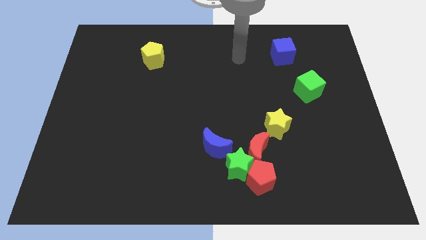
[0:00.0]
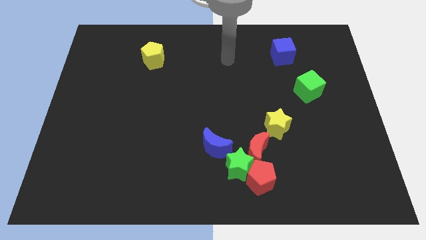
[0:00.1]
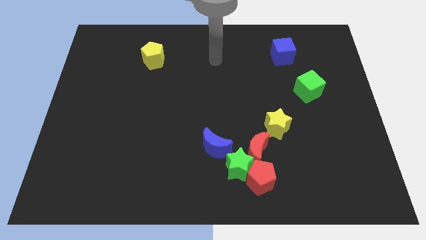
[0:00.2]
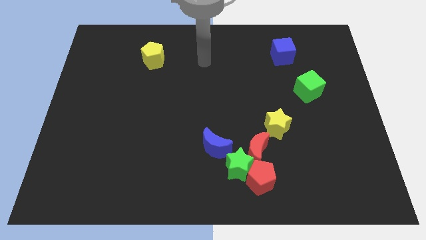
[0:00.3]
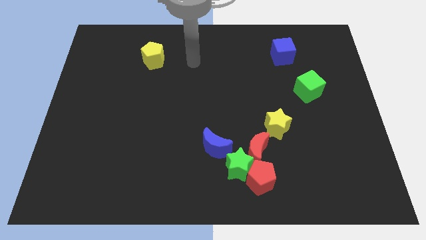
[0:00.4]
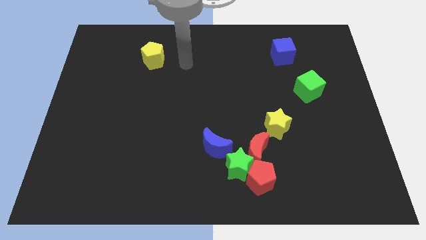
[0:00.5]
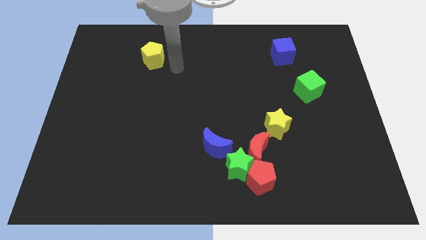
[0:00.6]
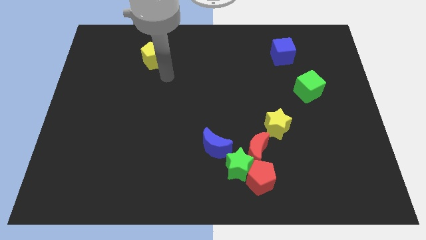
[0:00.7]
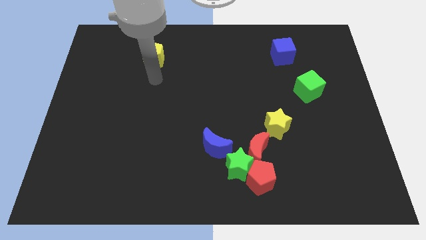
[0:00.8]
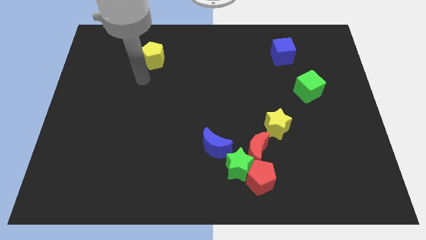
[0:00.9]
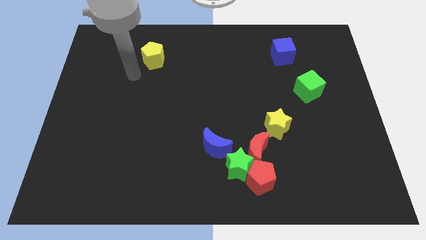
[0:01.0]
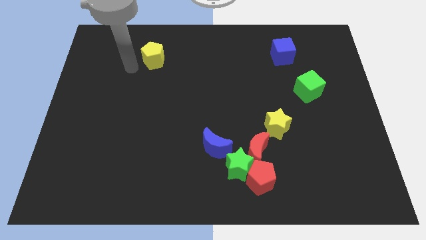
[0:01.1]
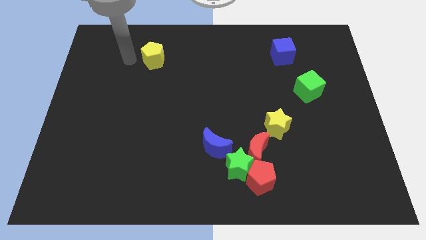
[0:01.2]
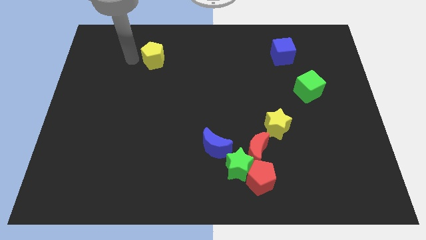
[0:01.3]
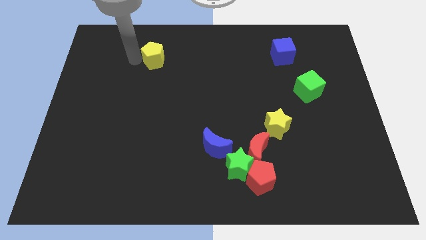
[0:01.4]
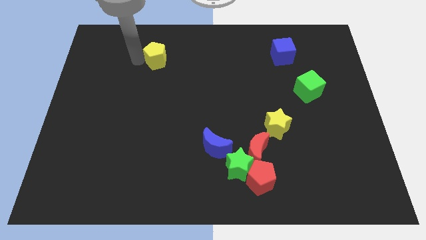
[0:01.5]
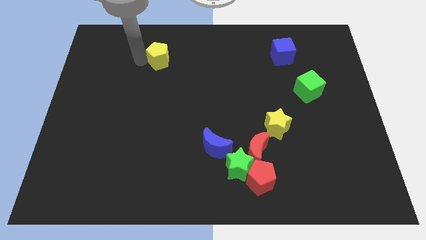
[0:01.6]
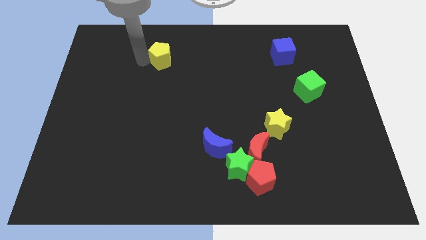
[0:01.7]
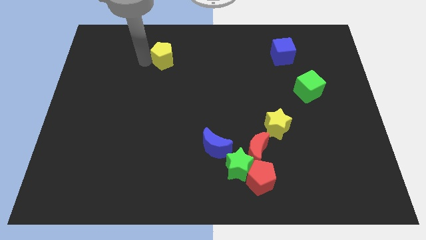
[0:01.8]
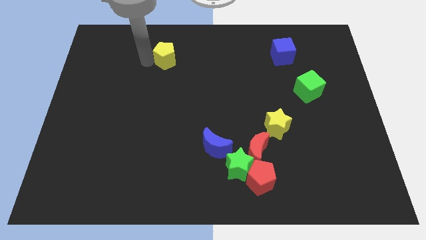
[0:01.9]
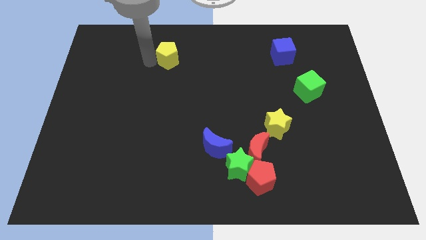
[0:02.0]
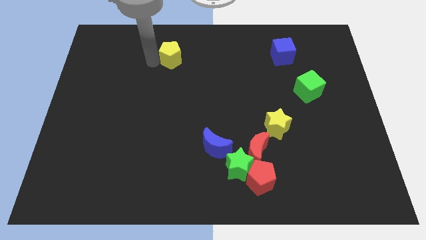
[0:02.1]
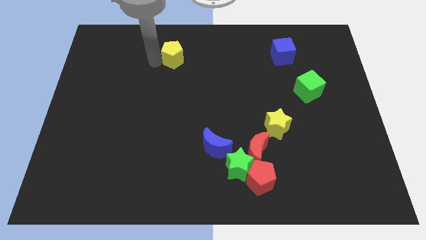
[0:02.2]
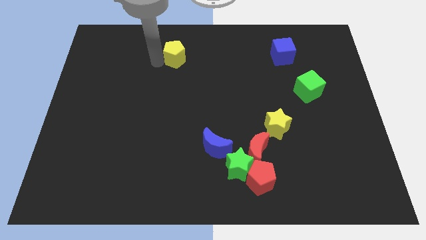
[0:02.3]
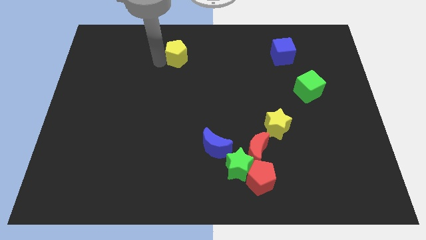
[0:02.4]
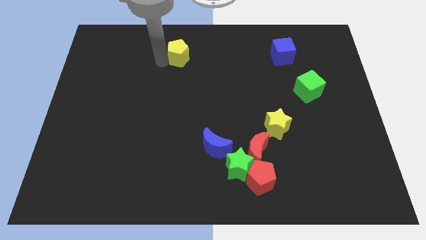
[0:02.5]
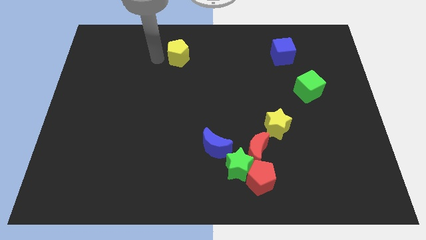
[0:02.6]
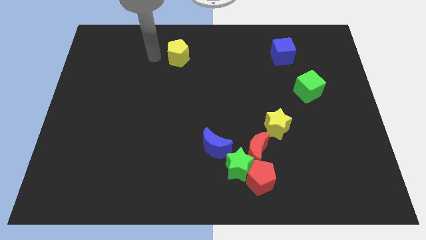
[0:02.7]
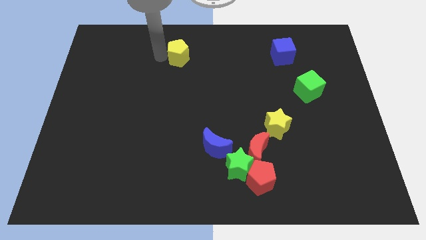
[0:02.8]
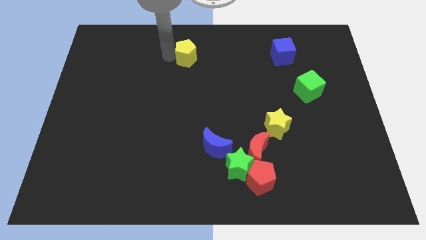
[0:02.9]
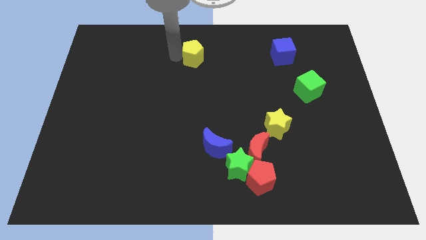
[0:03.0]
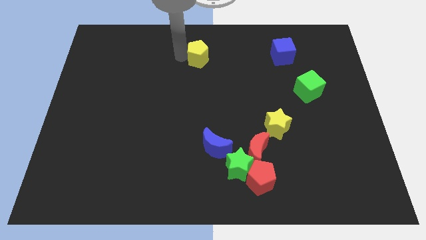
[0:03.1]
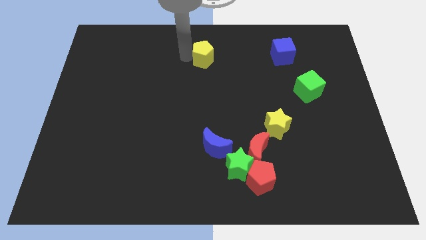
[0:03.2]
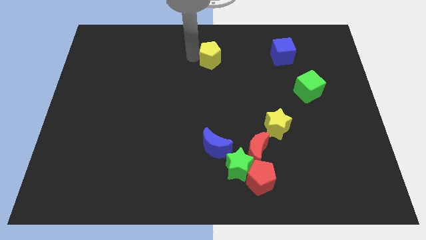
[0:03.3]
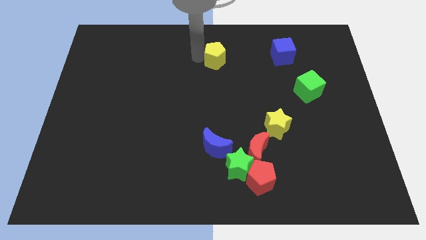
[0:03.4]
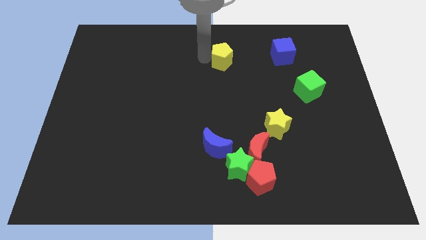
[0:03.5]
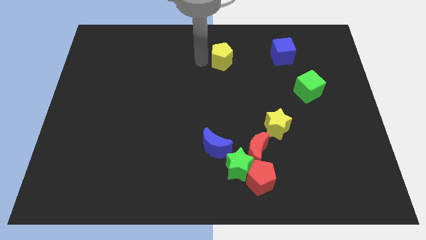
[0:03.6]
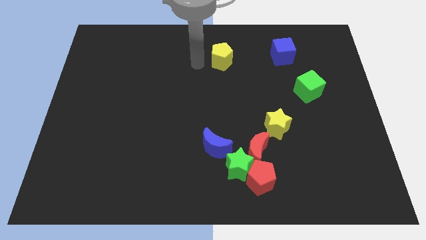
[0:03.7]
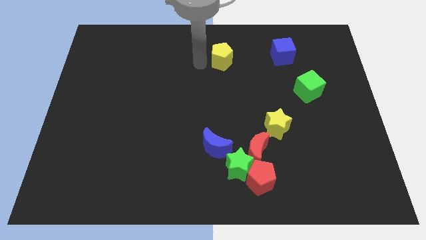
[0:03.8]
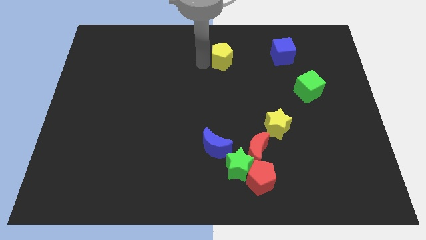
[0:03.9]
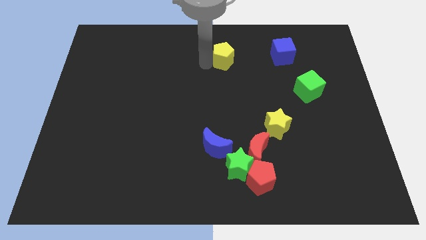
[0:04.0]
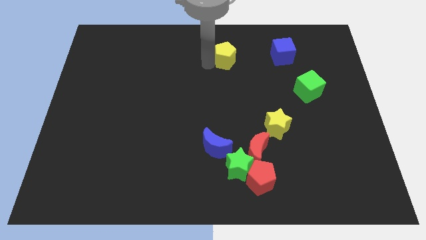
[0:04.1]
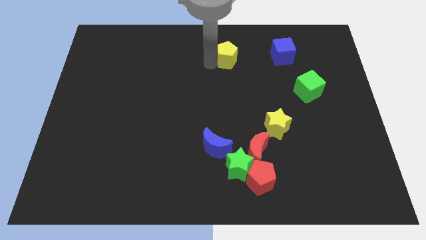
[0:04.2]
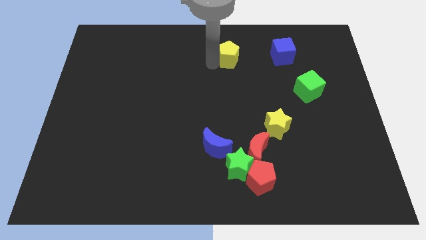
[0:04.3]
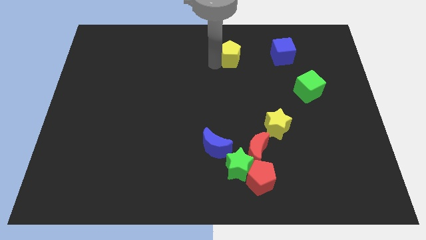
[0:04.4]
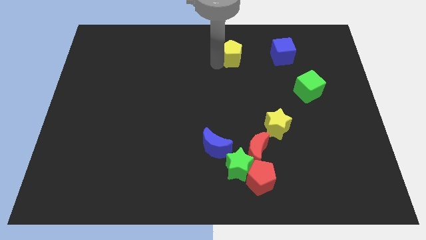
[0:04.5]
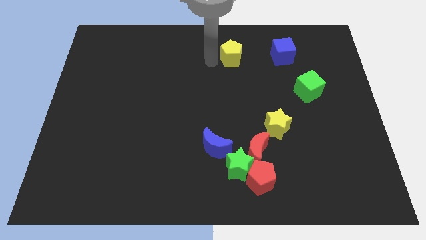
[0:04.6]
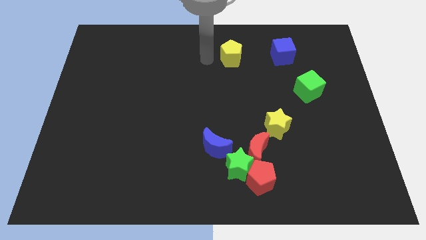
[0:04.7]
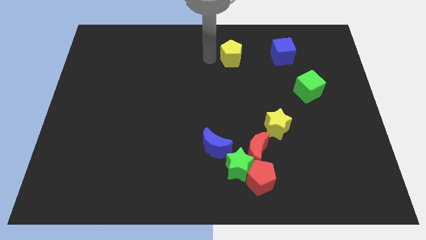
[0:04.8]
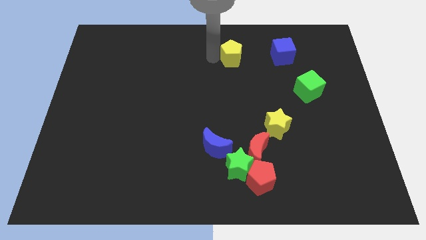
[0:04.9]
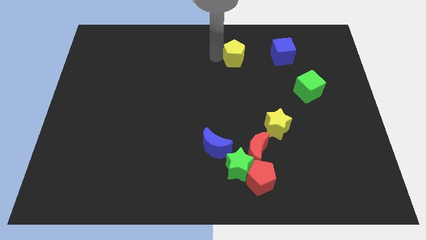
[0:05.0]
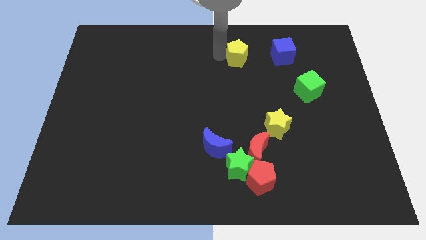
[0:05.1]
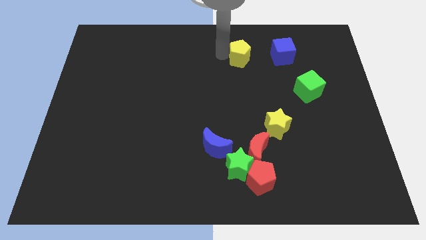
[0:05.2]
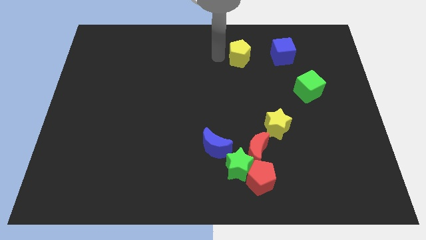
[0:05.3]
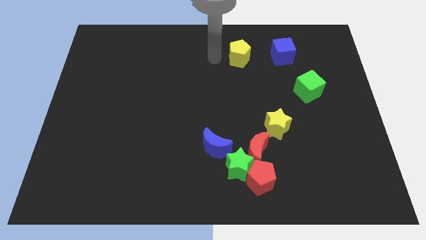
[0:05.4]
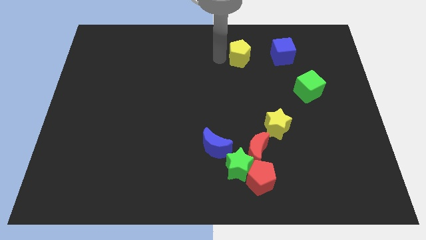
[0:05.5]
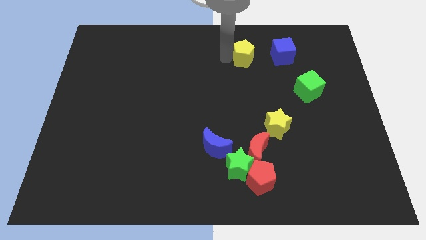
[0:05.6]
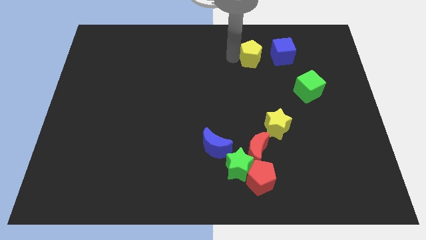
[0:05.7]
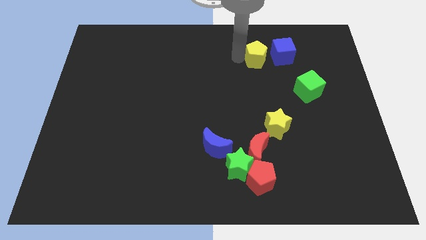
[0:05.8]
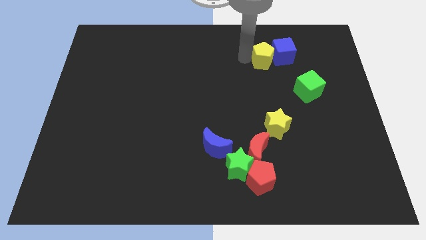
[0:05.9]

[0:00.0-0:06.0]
put the yellow pentagon to the blue cube

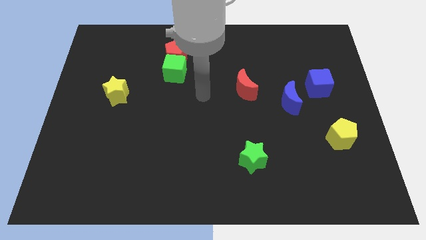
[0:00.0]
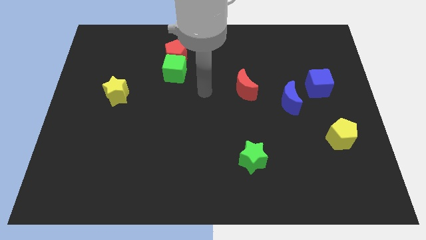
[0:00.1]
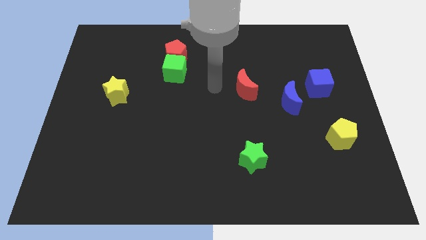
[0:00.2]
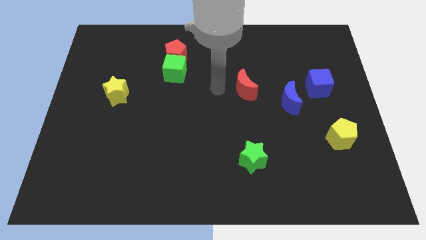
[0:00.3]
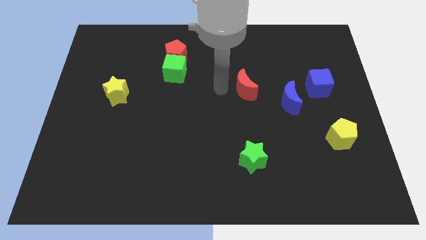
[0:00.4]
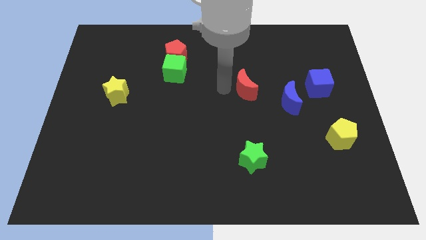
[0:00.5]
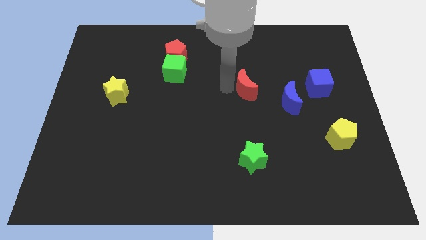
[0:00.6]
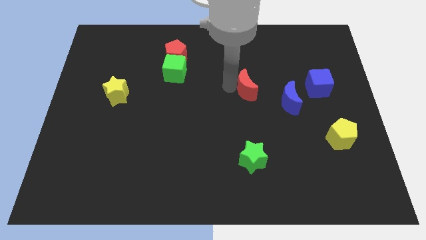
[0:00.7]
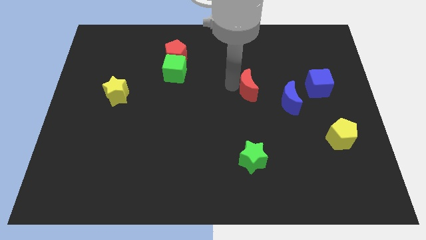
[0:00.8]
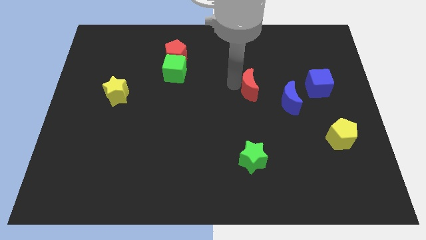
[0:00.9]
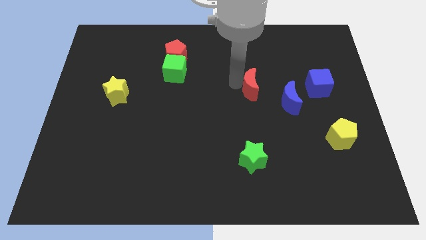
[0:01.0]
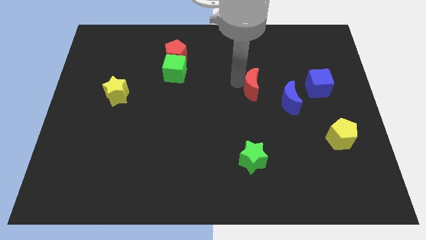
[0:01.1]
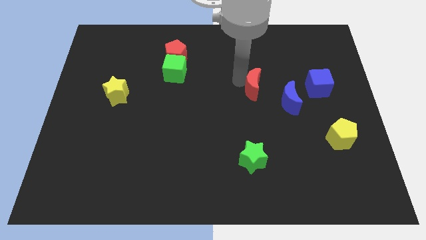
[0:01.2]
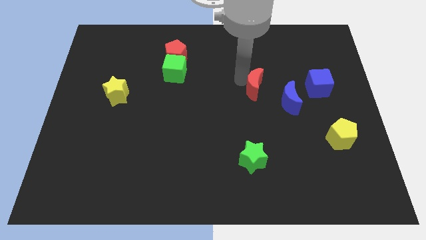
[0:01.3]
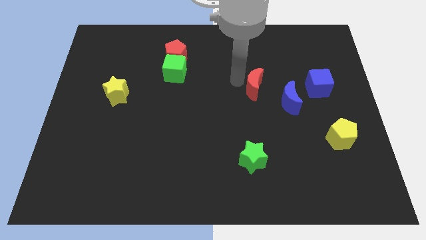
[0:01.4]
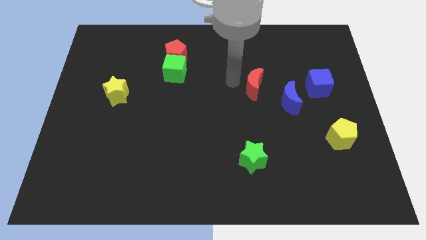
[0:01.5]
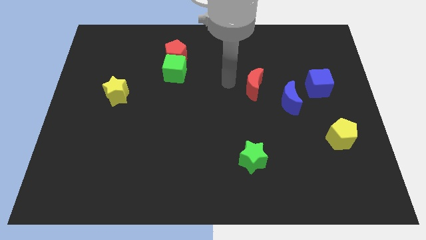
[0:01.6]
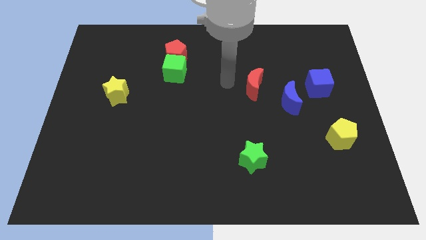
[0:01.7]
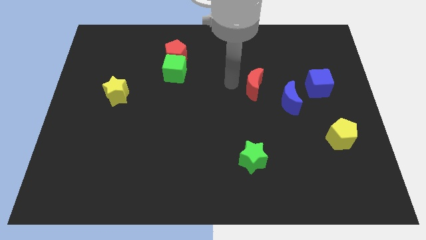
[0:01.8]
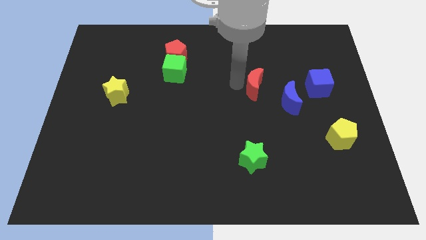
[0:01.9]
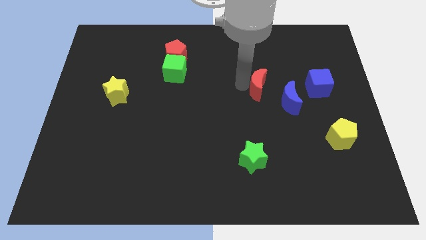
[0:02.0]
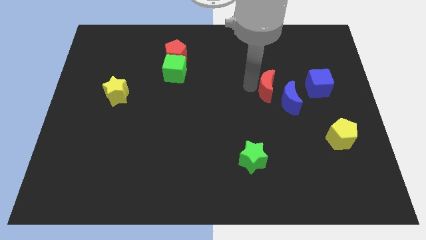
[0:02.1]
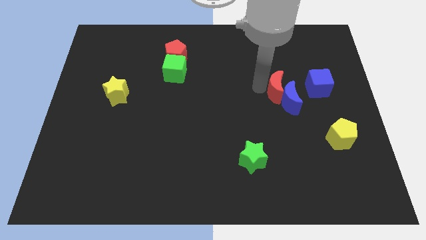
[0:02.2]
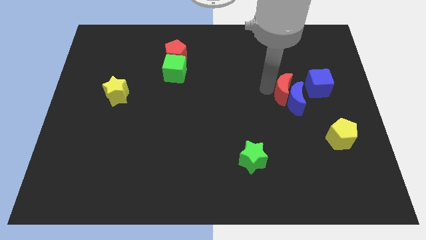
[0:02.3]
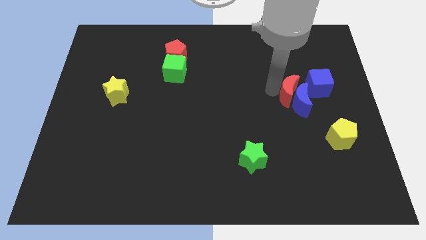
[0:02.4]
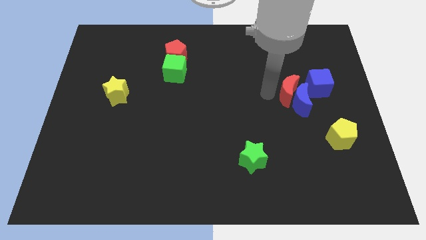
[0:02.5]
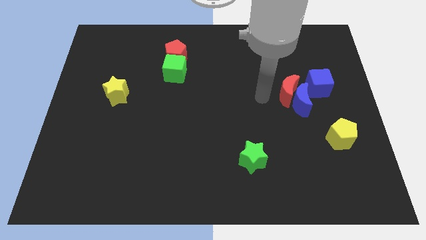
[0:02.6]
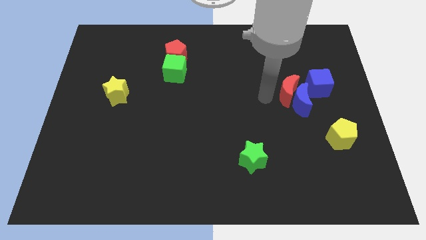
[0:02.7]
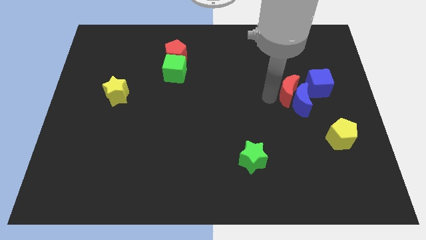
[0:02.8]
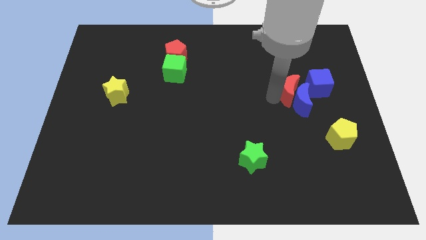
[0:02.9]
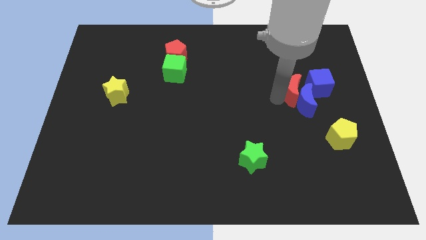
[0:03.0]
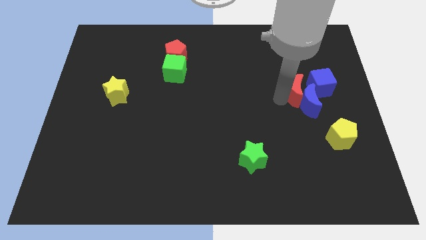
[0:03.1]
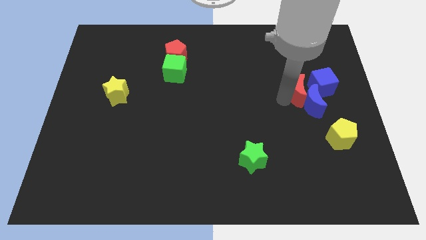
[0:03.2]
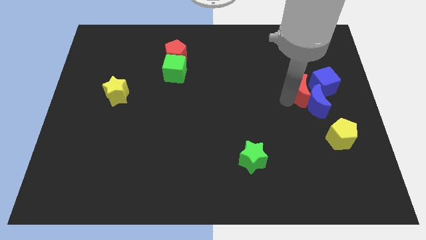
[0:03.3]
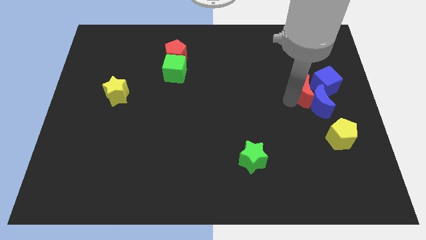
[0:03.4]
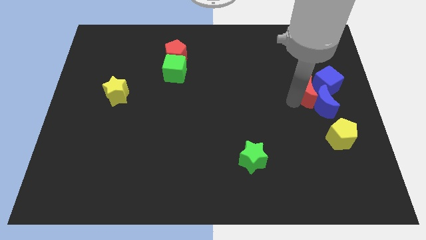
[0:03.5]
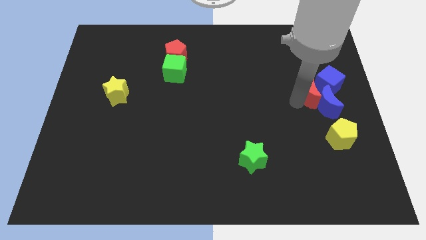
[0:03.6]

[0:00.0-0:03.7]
slide the red moon next to the blue cube
